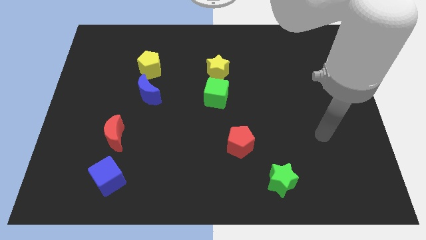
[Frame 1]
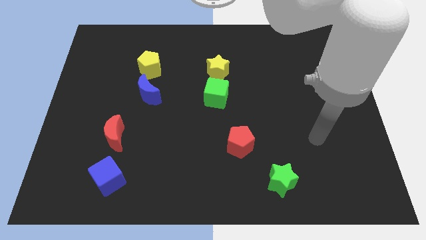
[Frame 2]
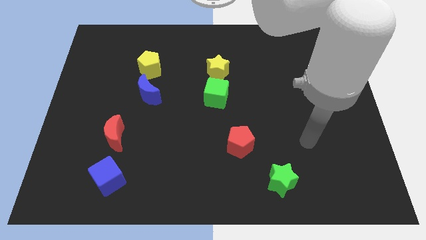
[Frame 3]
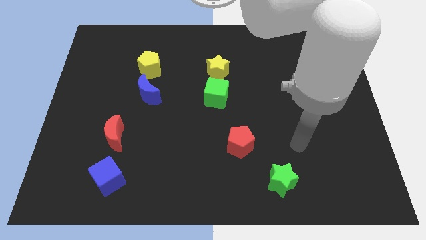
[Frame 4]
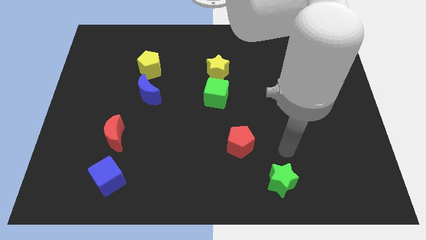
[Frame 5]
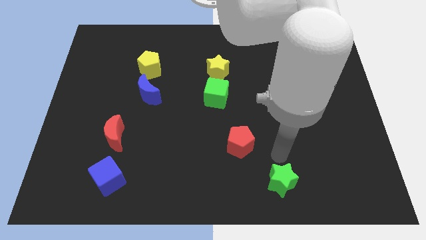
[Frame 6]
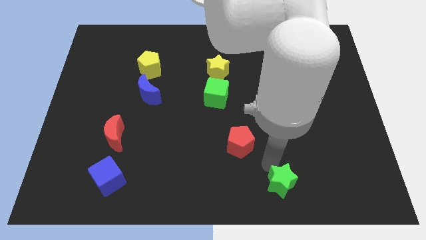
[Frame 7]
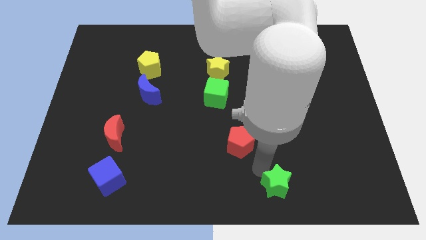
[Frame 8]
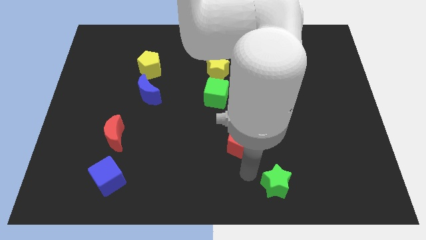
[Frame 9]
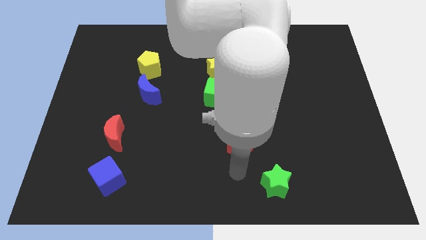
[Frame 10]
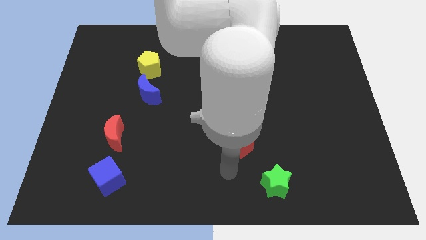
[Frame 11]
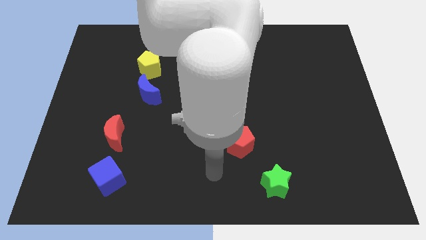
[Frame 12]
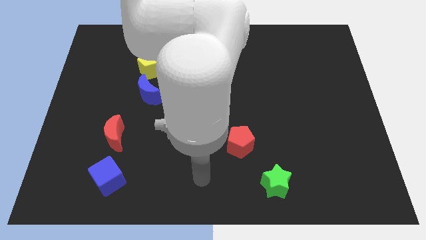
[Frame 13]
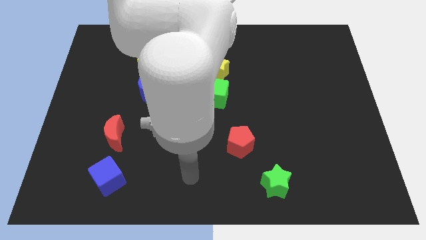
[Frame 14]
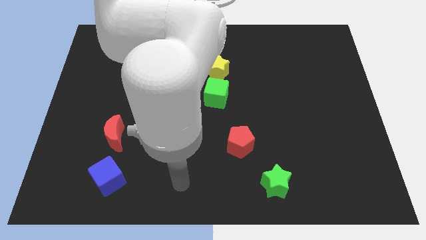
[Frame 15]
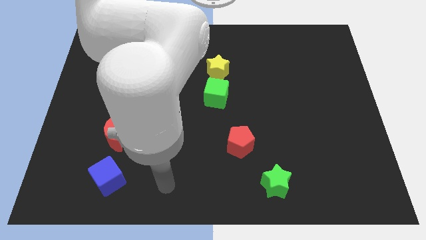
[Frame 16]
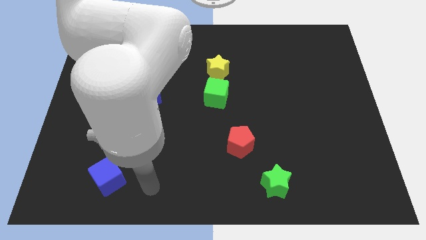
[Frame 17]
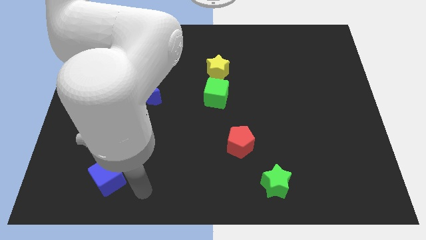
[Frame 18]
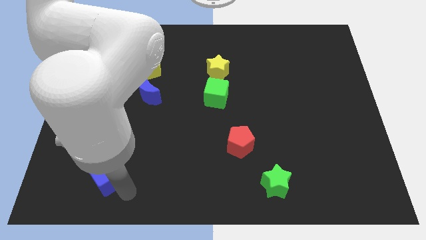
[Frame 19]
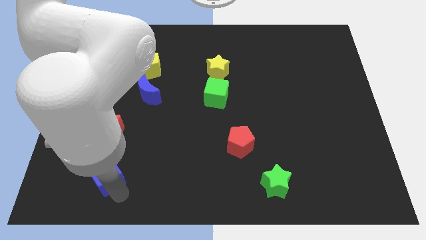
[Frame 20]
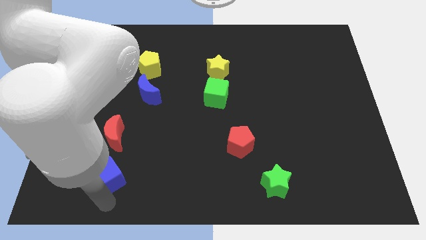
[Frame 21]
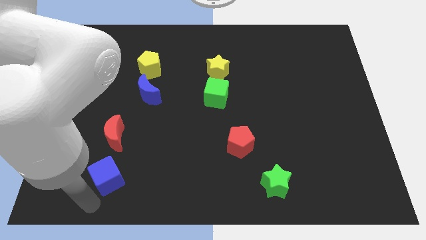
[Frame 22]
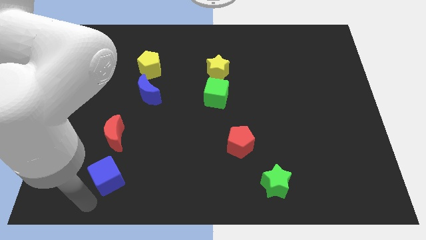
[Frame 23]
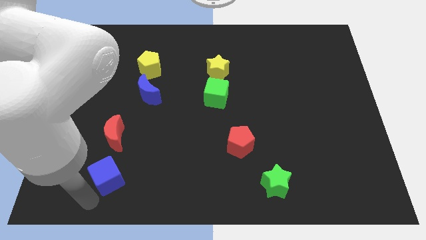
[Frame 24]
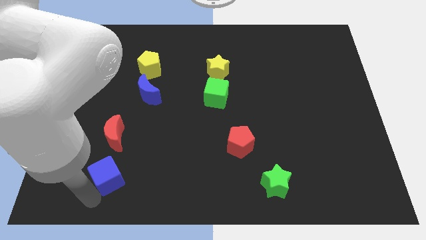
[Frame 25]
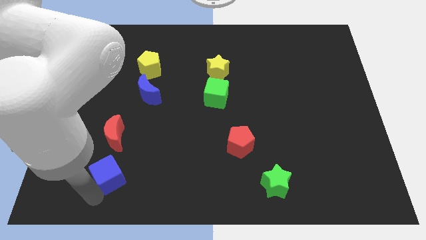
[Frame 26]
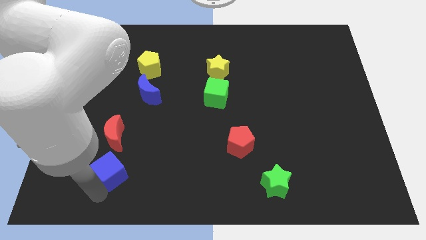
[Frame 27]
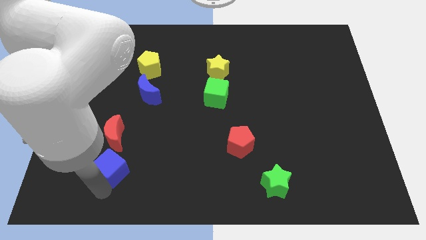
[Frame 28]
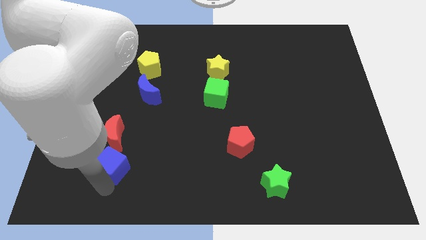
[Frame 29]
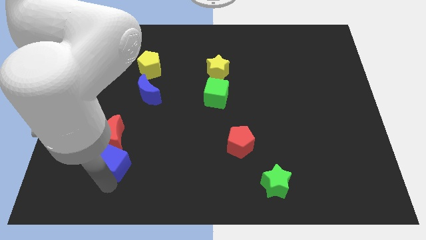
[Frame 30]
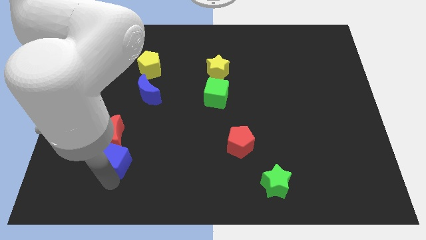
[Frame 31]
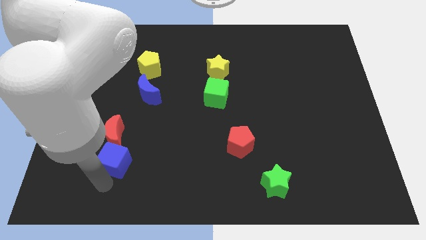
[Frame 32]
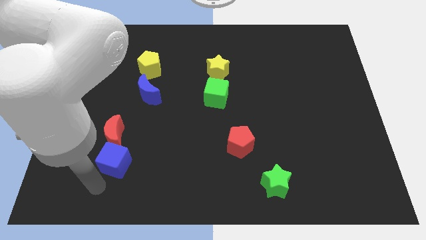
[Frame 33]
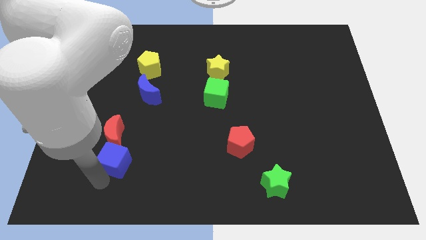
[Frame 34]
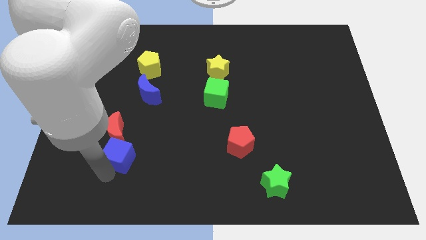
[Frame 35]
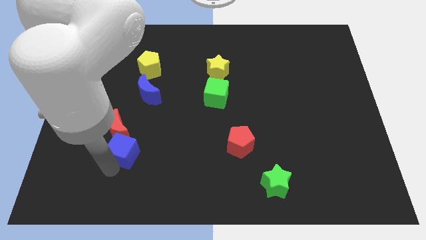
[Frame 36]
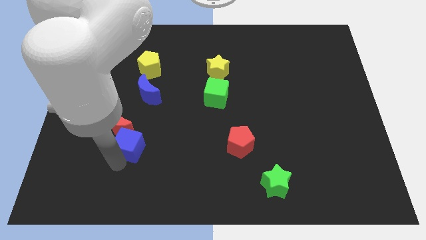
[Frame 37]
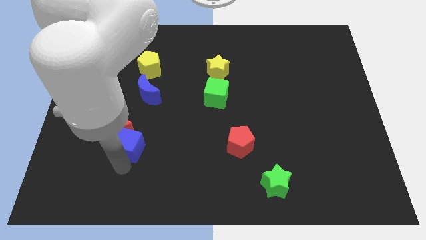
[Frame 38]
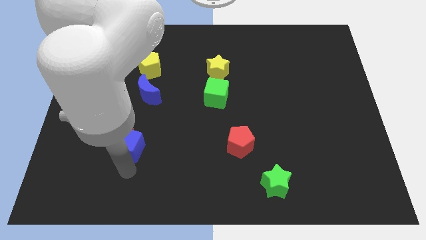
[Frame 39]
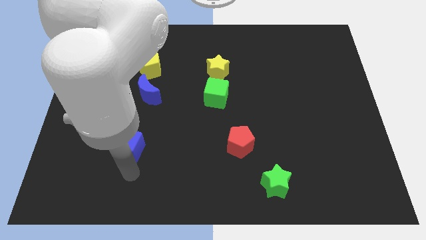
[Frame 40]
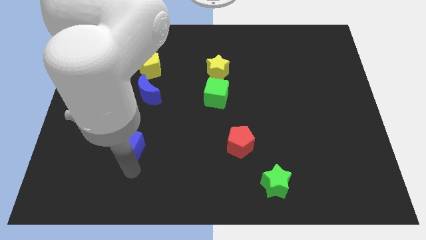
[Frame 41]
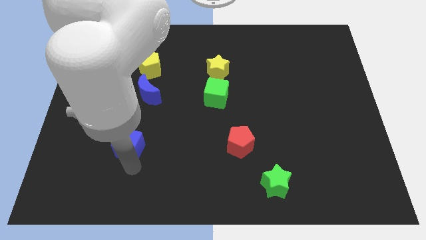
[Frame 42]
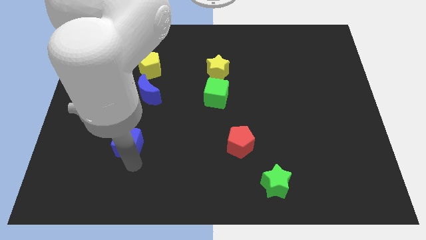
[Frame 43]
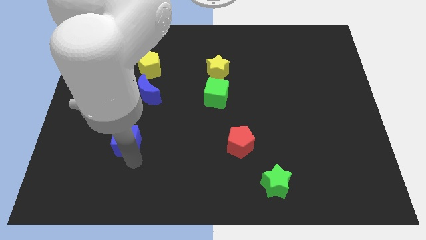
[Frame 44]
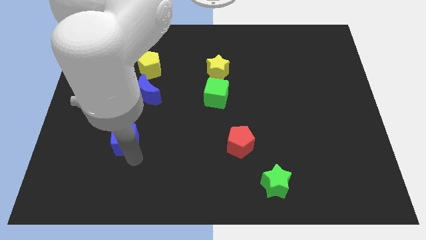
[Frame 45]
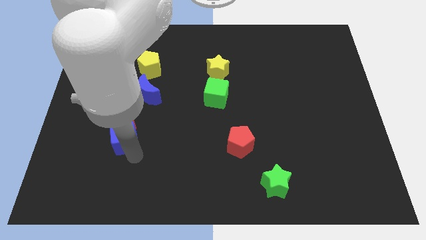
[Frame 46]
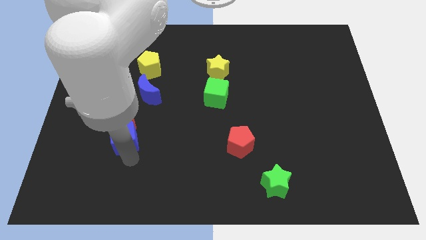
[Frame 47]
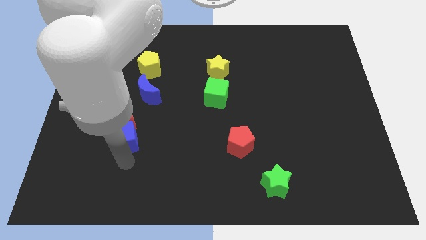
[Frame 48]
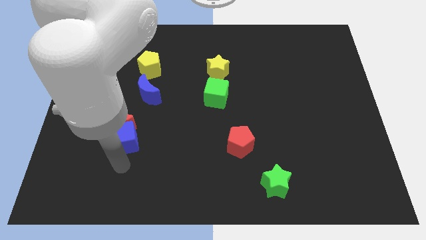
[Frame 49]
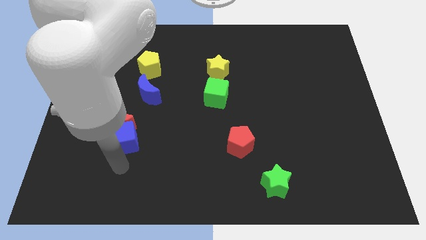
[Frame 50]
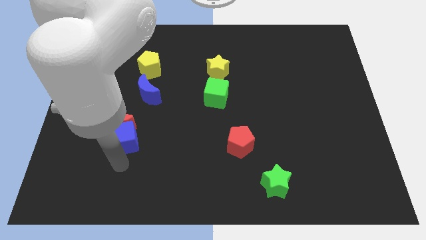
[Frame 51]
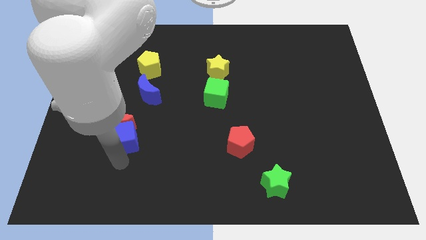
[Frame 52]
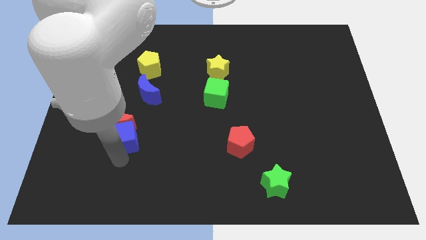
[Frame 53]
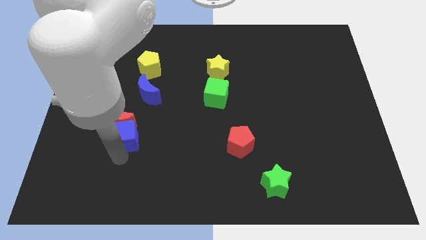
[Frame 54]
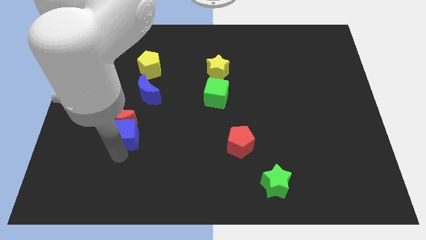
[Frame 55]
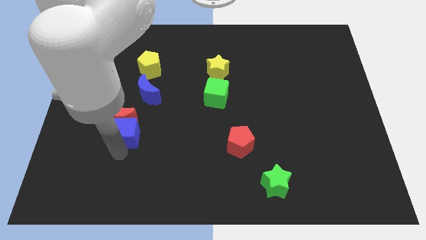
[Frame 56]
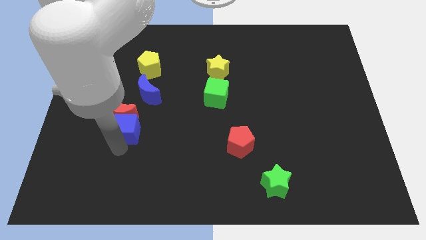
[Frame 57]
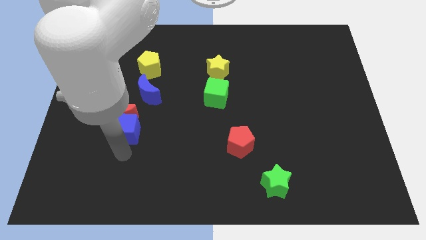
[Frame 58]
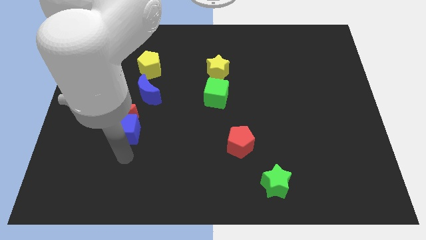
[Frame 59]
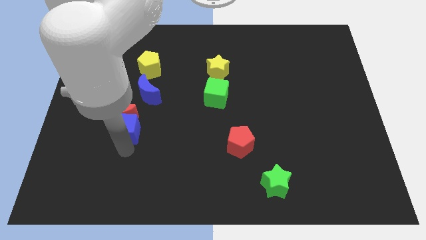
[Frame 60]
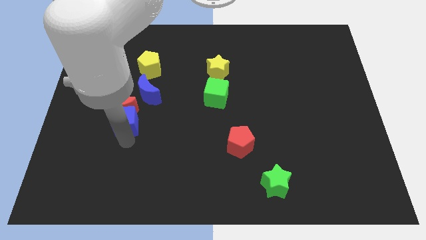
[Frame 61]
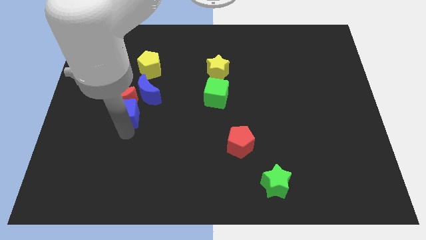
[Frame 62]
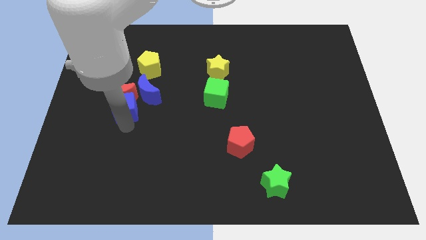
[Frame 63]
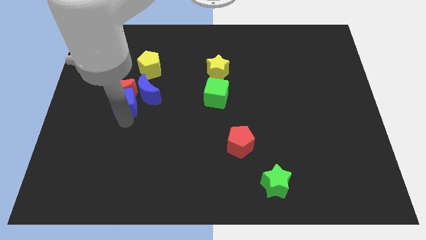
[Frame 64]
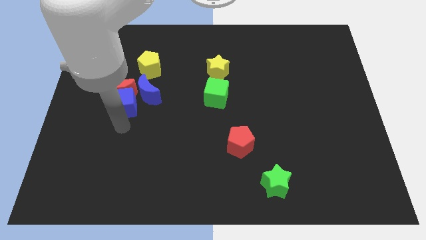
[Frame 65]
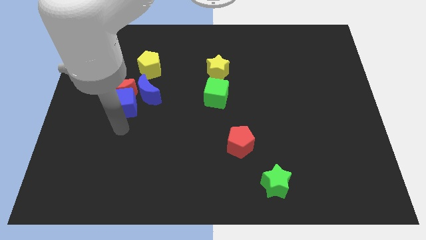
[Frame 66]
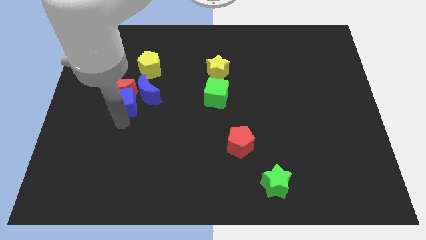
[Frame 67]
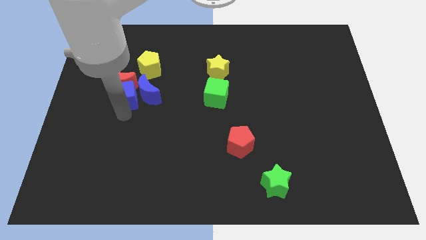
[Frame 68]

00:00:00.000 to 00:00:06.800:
push the blue cube up

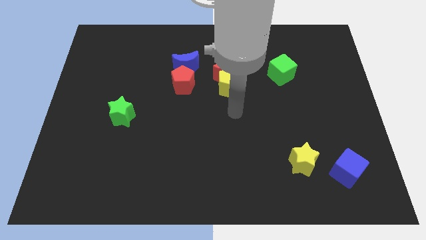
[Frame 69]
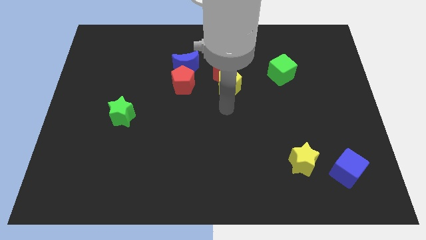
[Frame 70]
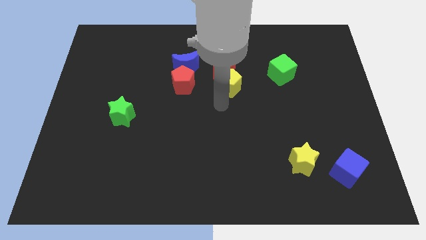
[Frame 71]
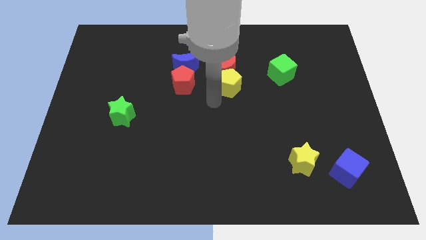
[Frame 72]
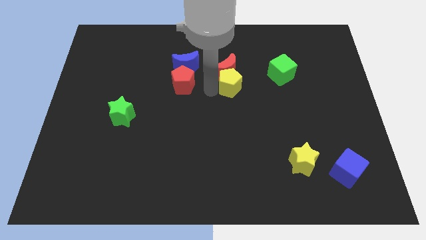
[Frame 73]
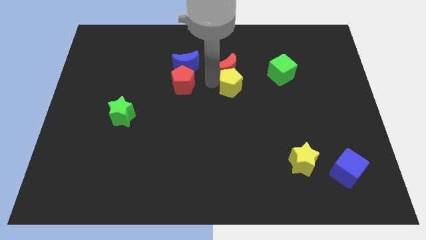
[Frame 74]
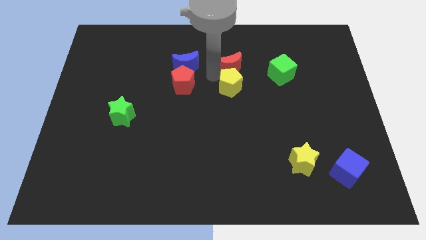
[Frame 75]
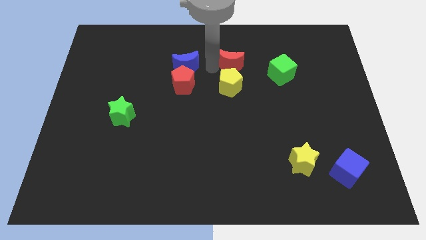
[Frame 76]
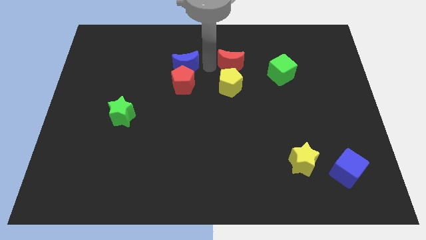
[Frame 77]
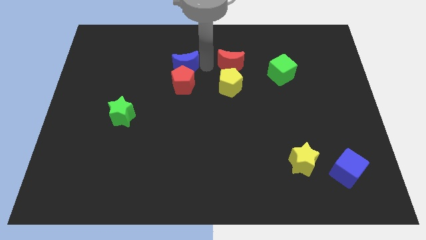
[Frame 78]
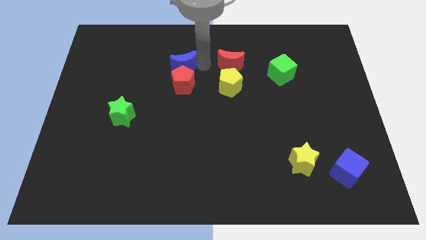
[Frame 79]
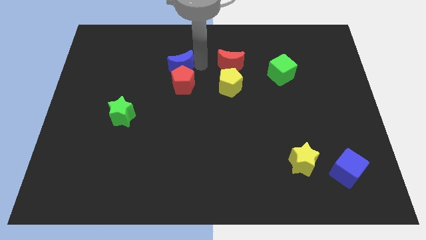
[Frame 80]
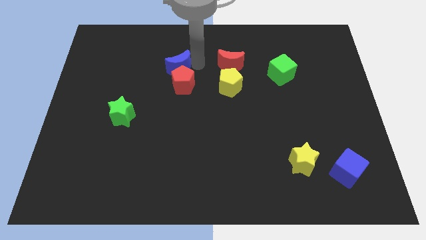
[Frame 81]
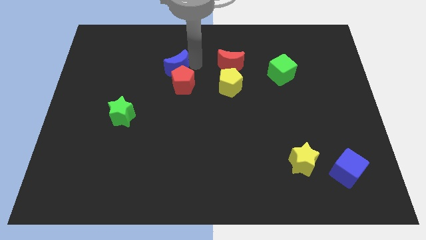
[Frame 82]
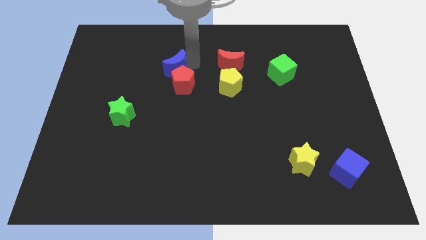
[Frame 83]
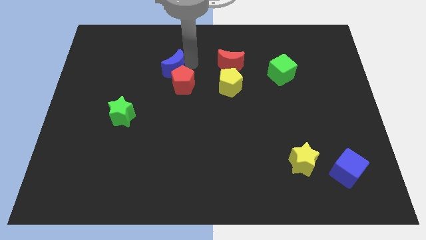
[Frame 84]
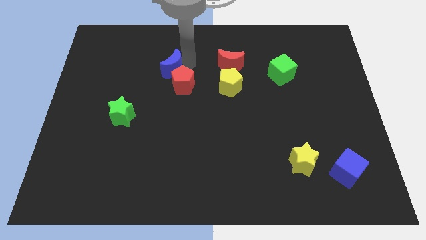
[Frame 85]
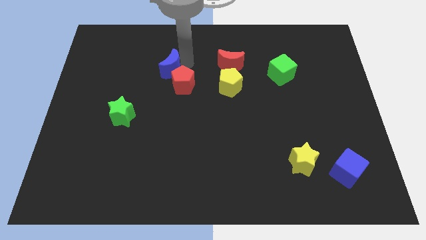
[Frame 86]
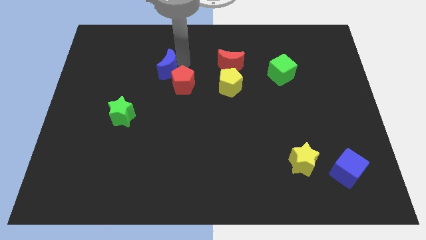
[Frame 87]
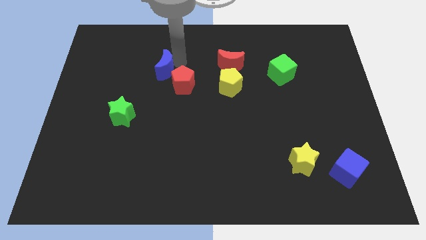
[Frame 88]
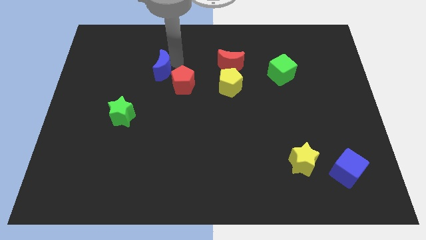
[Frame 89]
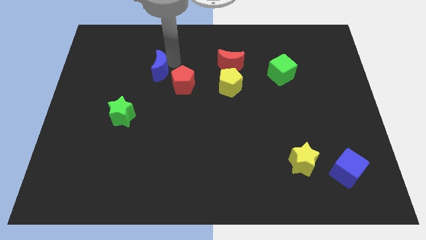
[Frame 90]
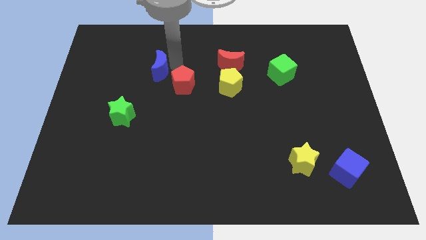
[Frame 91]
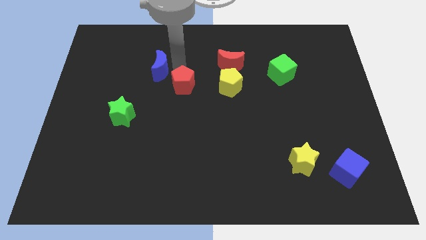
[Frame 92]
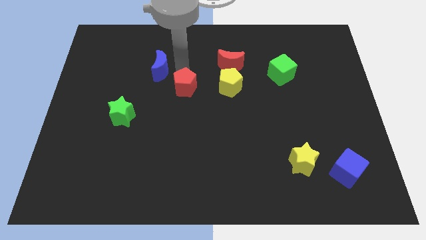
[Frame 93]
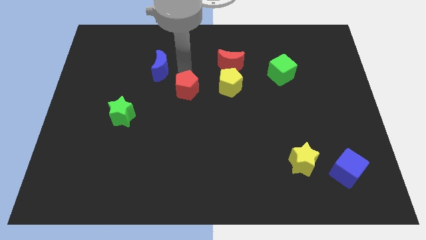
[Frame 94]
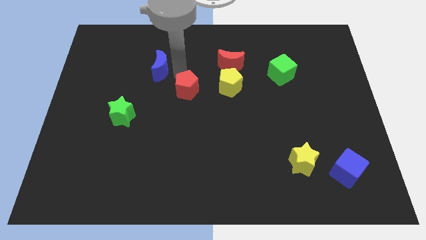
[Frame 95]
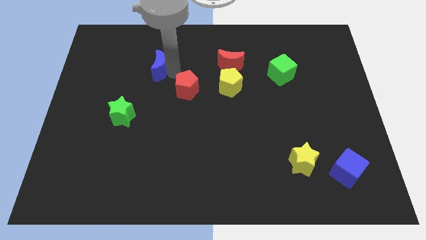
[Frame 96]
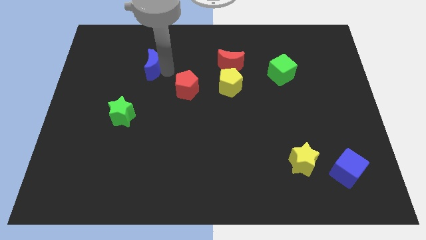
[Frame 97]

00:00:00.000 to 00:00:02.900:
push the blue moon left somewhat
